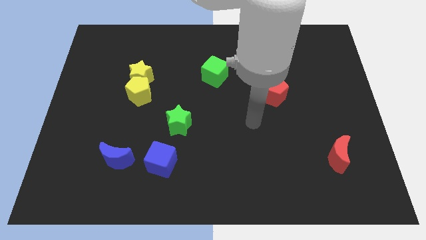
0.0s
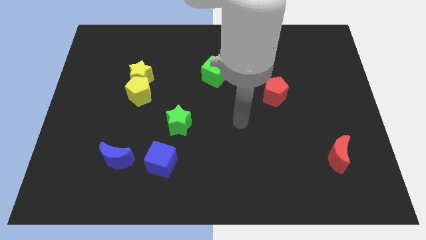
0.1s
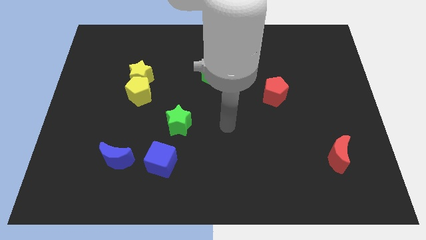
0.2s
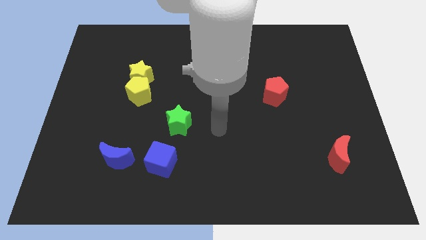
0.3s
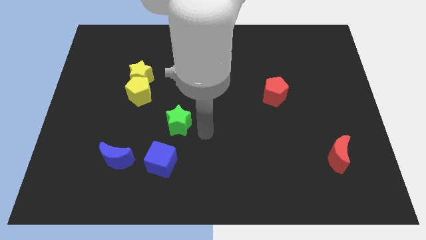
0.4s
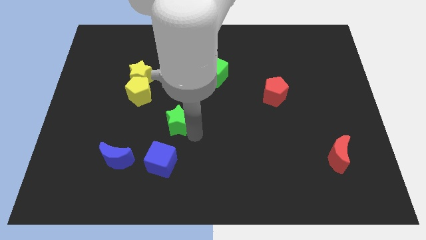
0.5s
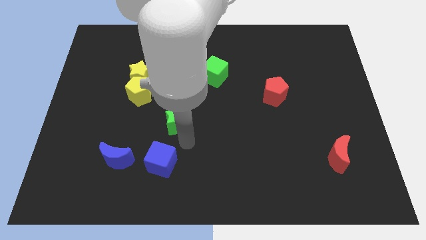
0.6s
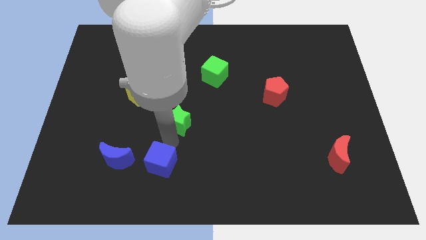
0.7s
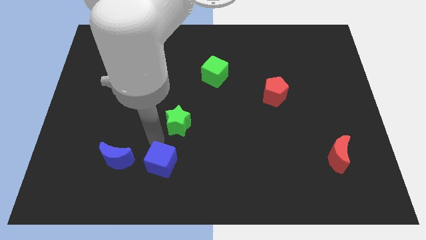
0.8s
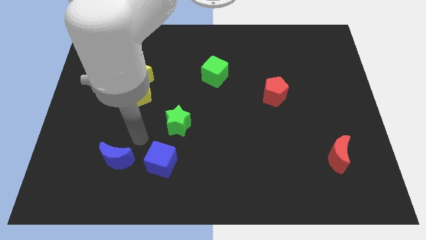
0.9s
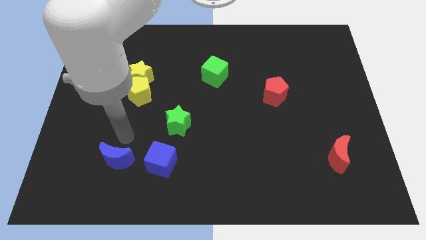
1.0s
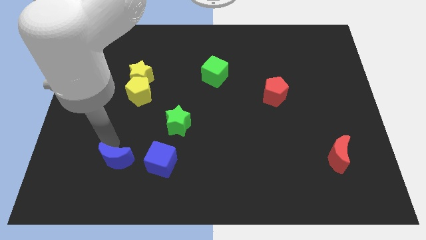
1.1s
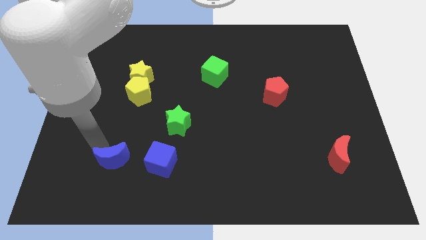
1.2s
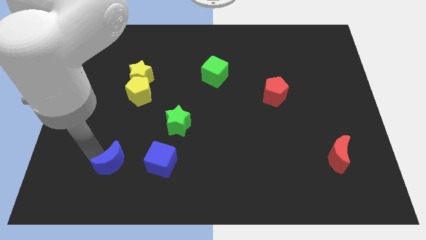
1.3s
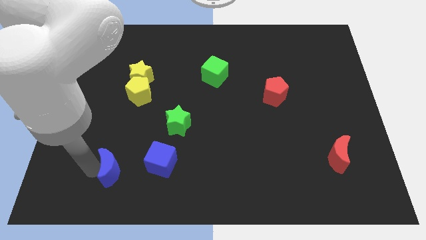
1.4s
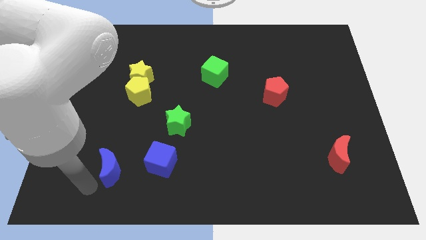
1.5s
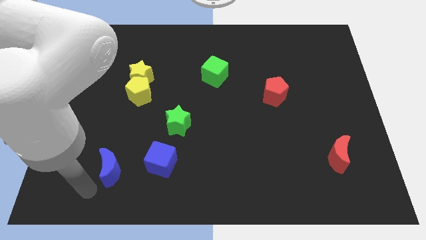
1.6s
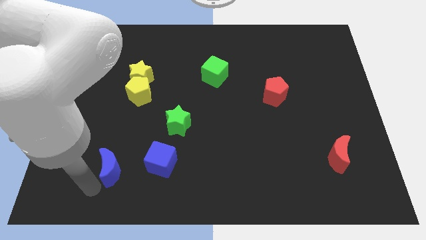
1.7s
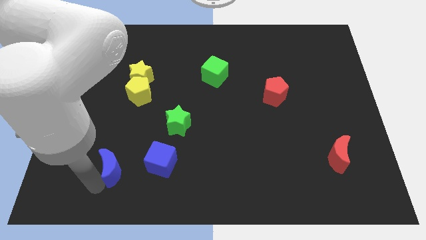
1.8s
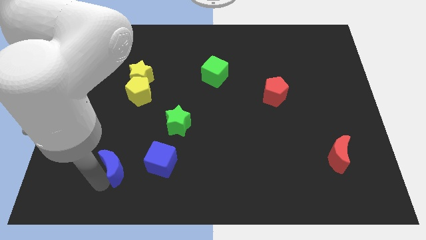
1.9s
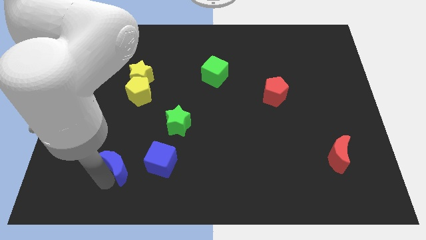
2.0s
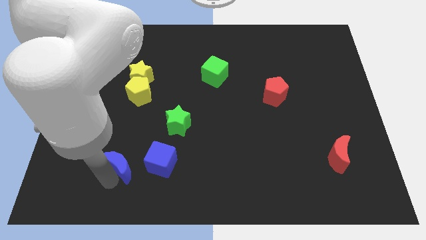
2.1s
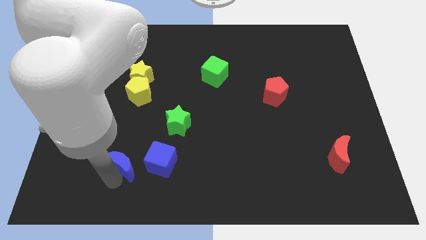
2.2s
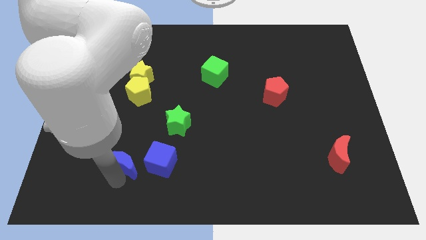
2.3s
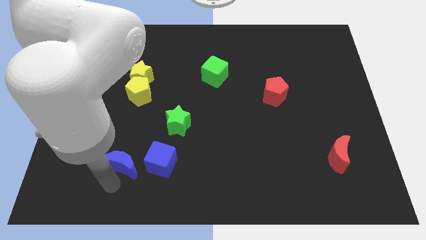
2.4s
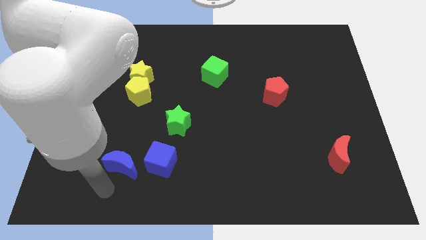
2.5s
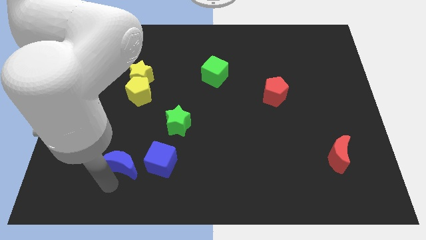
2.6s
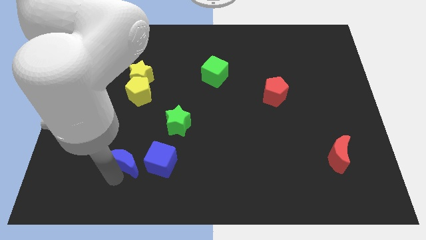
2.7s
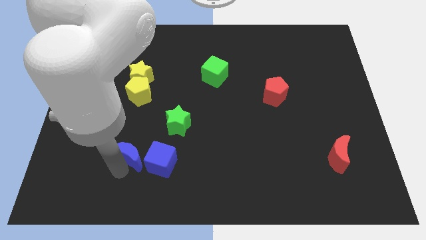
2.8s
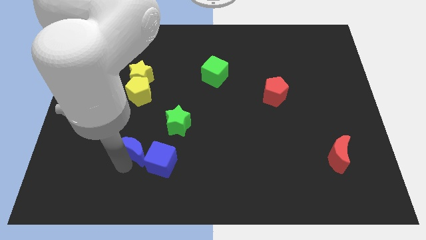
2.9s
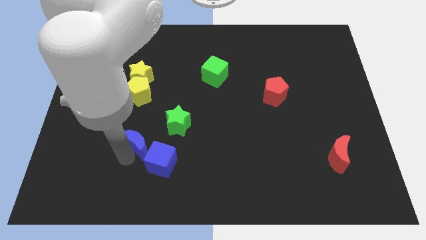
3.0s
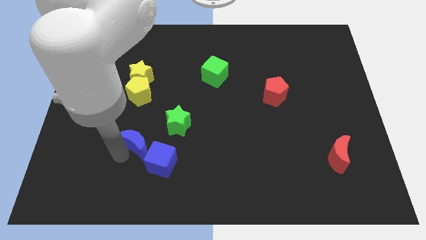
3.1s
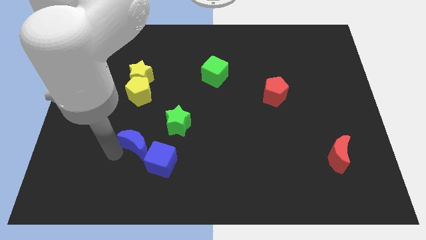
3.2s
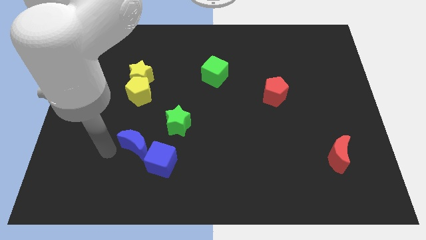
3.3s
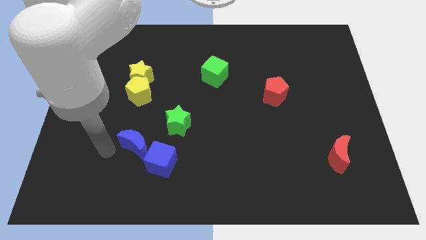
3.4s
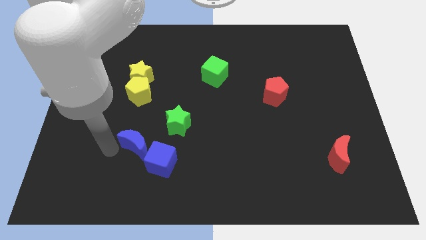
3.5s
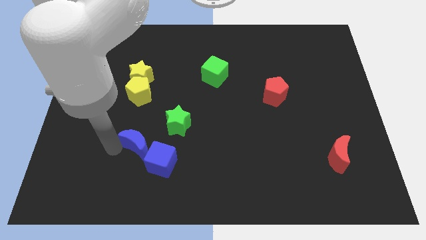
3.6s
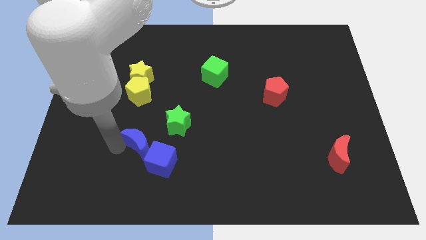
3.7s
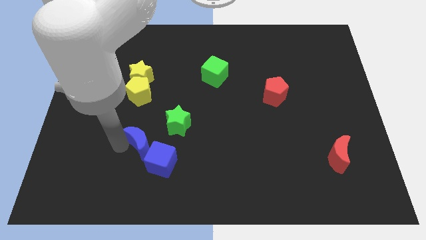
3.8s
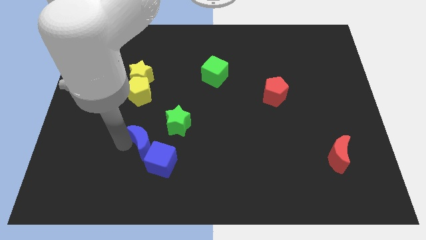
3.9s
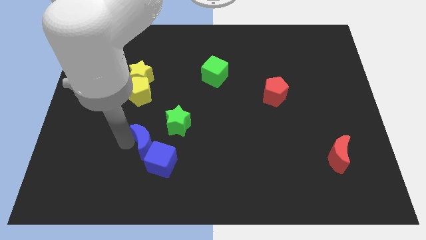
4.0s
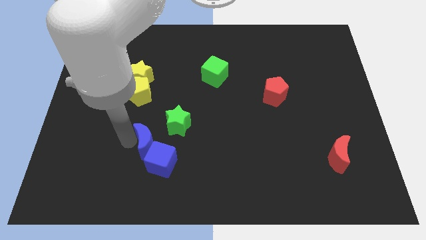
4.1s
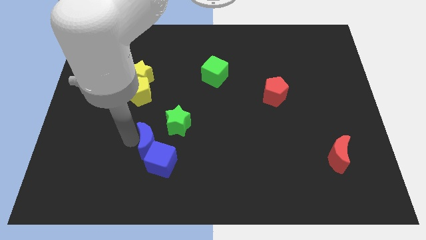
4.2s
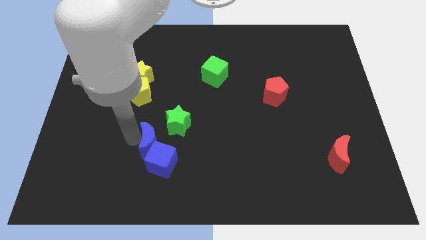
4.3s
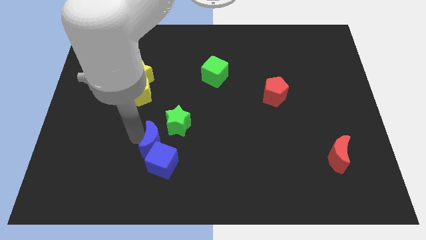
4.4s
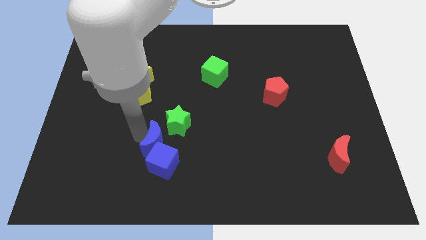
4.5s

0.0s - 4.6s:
push the blue moon right a little bit

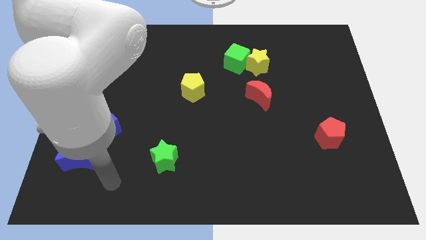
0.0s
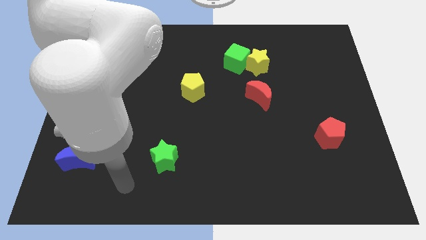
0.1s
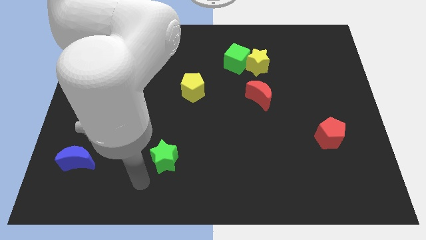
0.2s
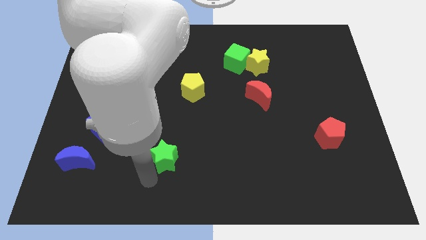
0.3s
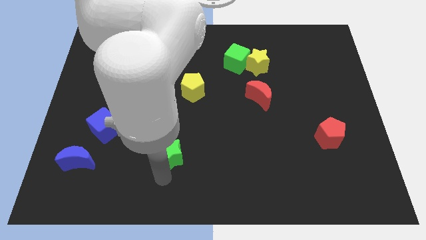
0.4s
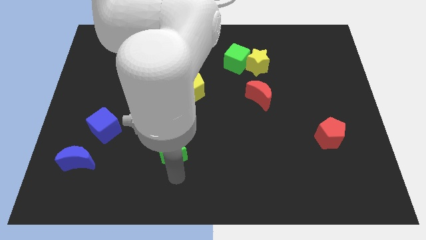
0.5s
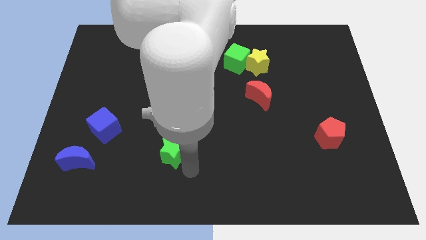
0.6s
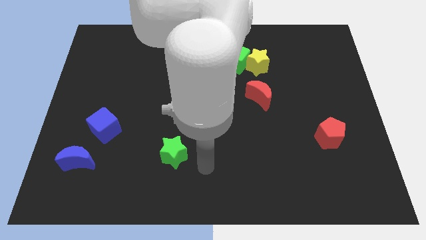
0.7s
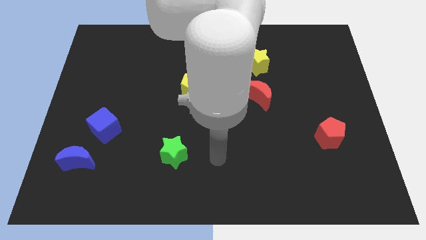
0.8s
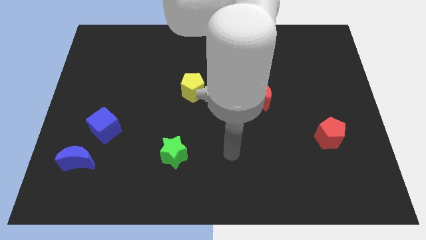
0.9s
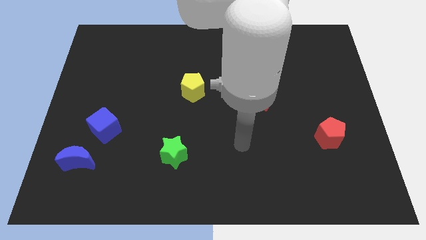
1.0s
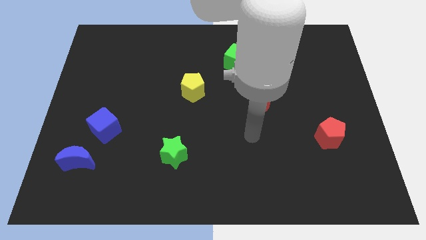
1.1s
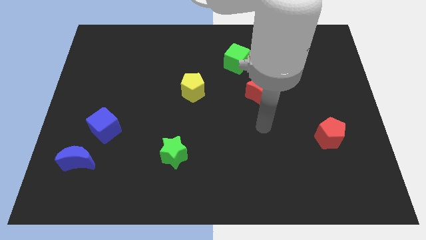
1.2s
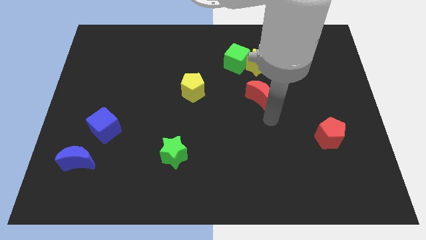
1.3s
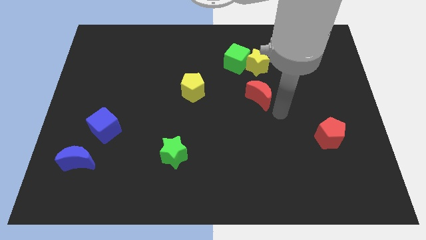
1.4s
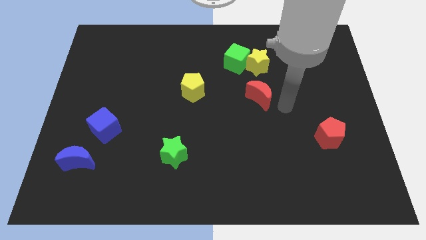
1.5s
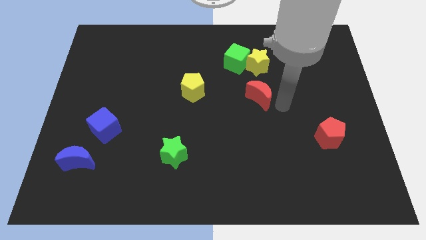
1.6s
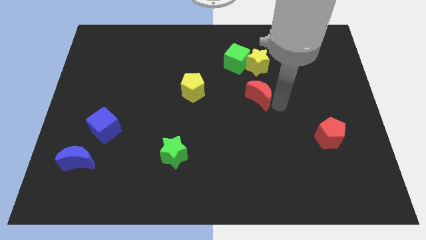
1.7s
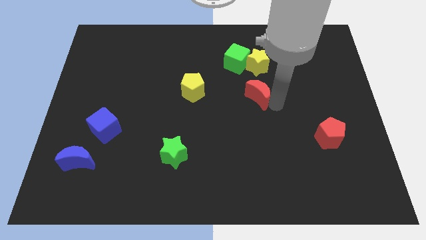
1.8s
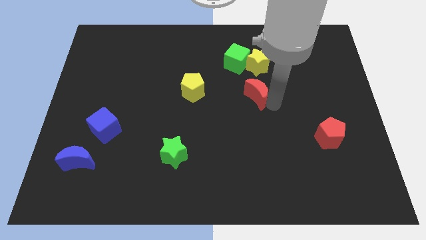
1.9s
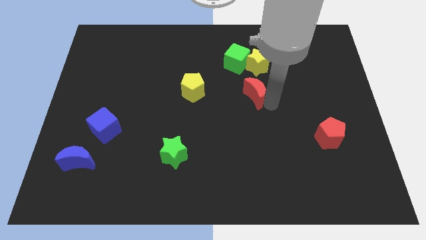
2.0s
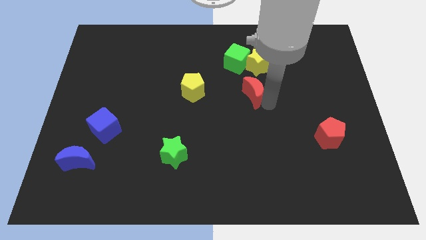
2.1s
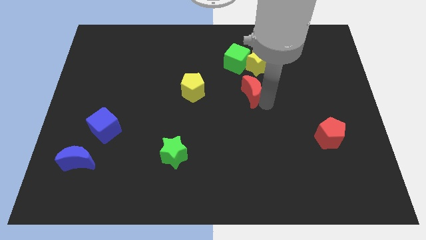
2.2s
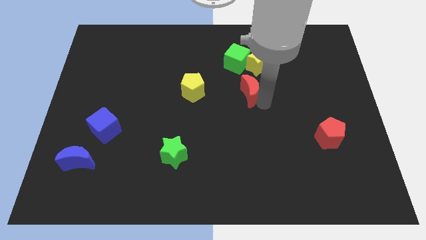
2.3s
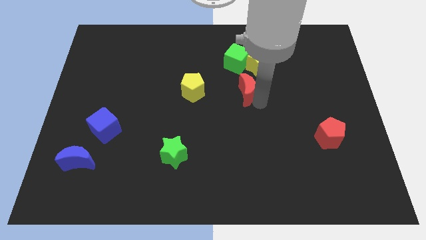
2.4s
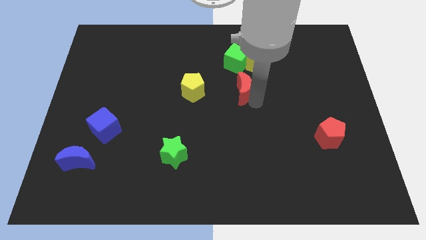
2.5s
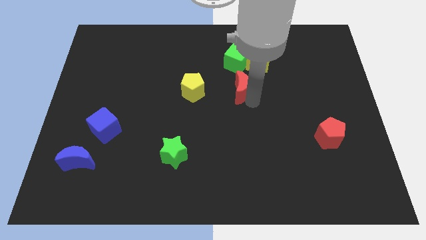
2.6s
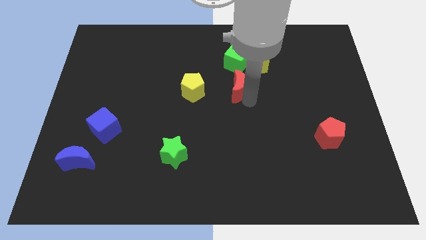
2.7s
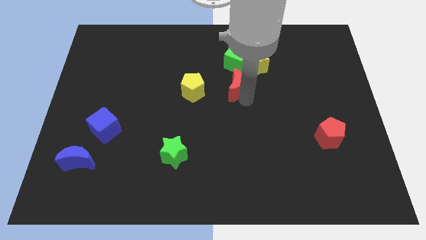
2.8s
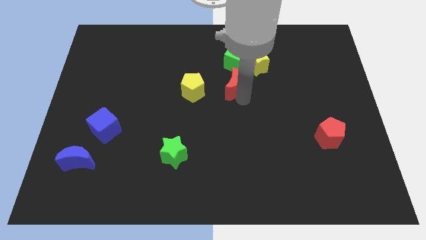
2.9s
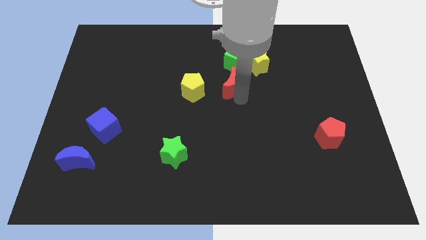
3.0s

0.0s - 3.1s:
move the red moon a bit up and then to the left

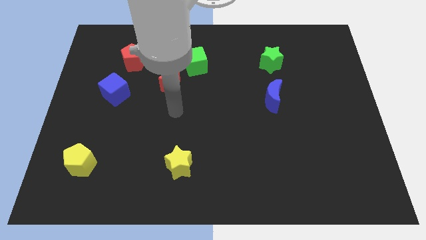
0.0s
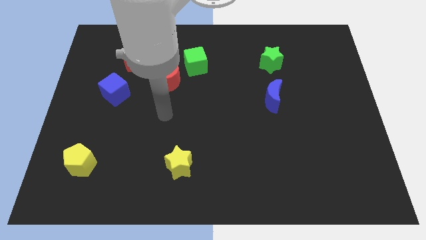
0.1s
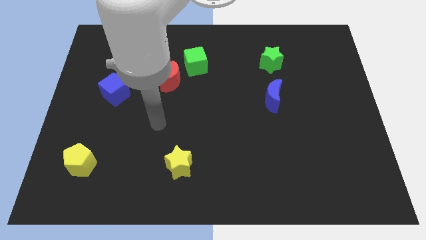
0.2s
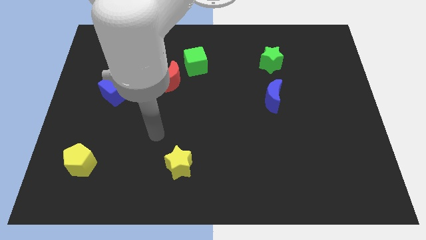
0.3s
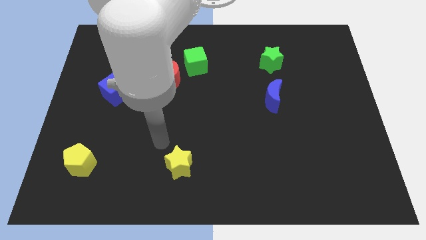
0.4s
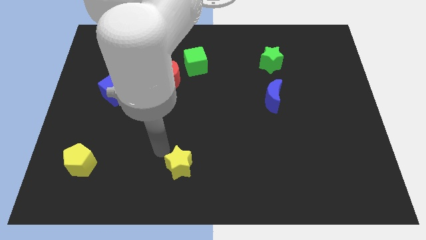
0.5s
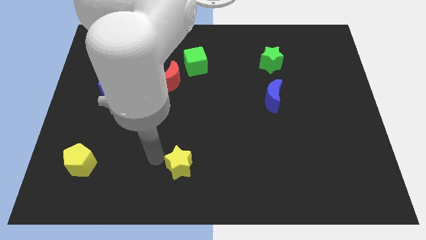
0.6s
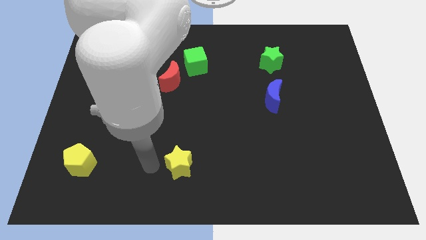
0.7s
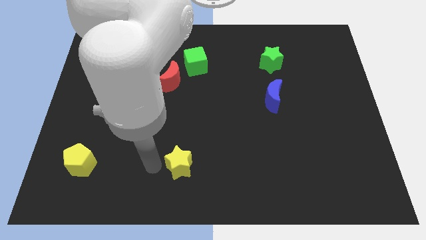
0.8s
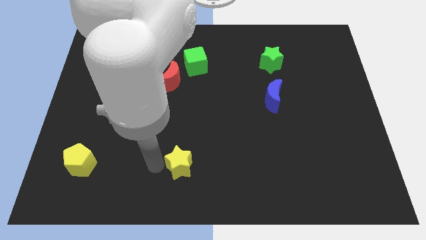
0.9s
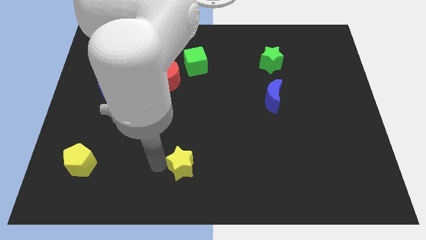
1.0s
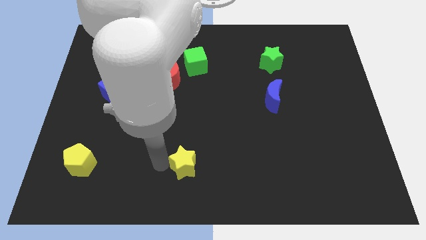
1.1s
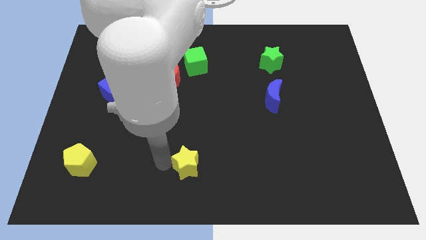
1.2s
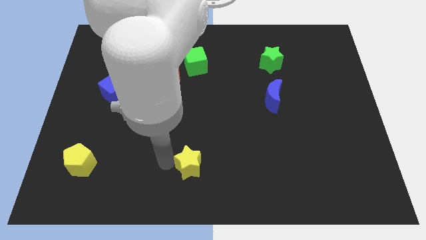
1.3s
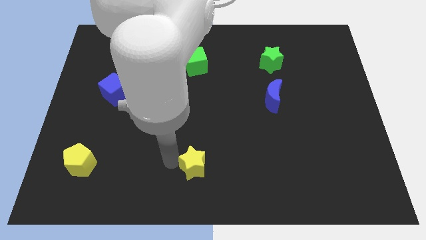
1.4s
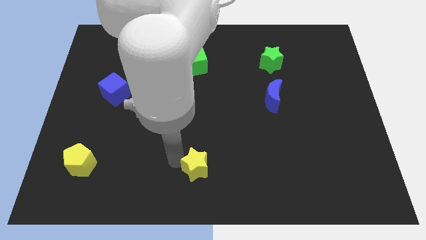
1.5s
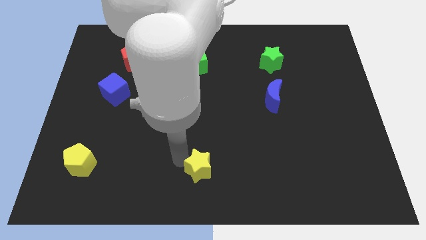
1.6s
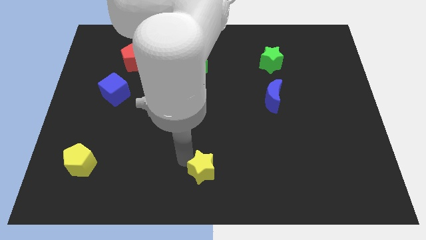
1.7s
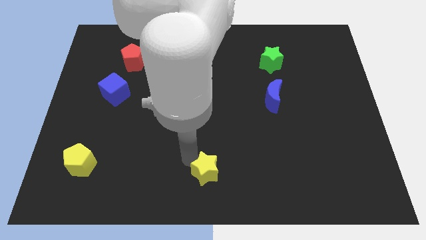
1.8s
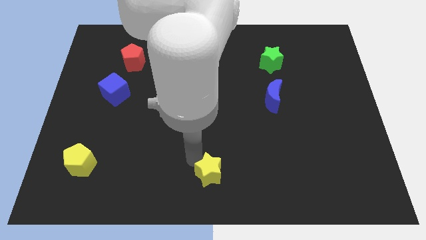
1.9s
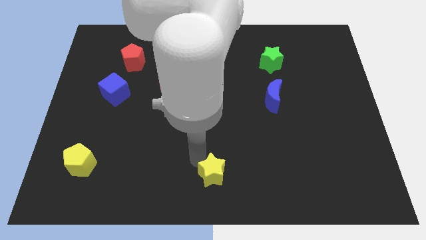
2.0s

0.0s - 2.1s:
slide the yellow star a little right
